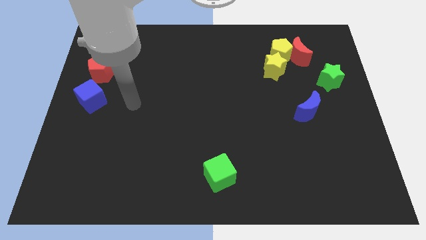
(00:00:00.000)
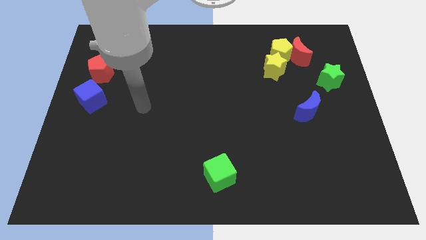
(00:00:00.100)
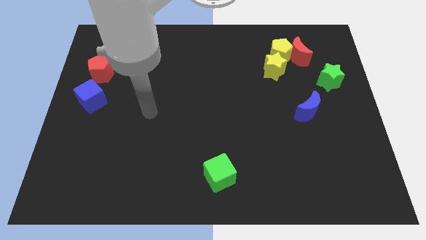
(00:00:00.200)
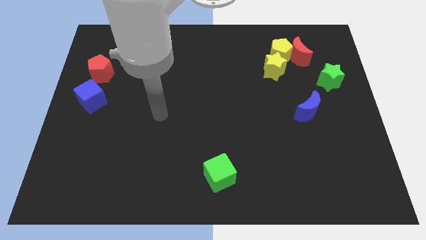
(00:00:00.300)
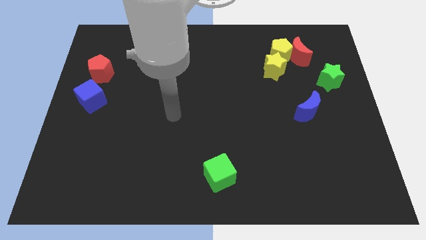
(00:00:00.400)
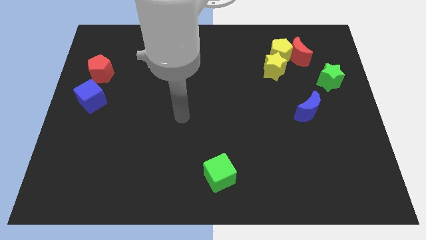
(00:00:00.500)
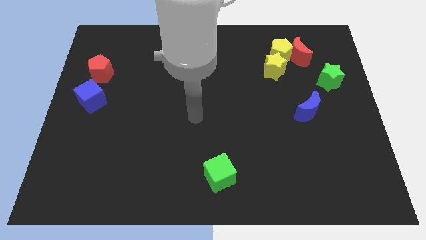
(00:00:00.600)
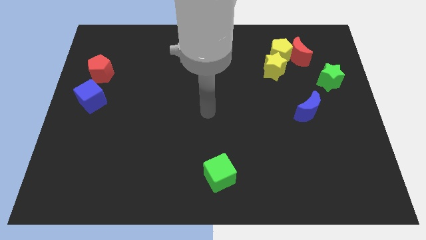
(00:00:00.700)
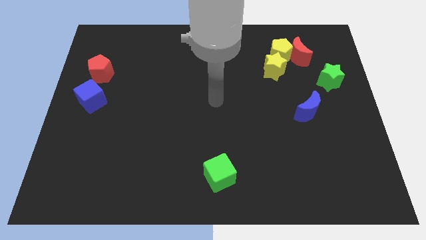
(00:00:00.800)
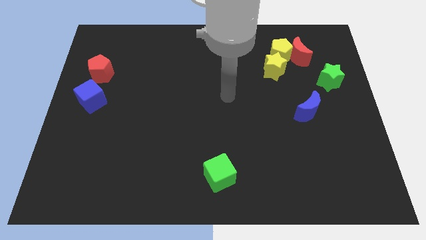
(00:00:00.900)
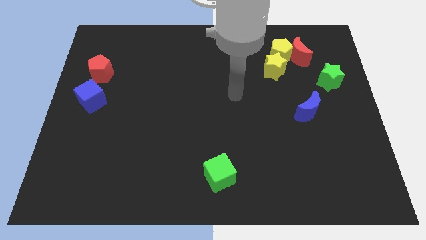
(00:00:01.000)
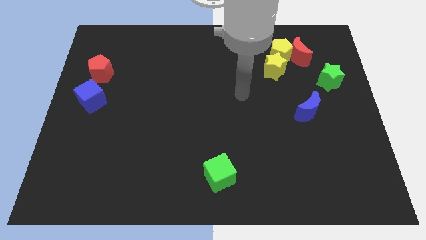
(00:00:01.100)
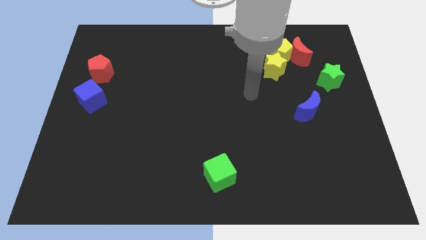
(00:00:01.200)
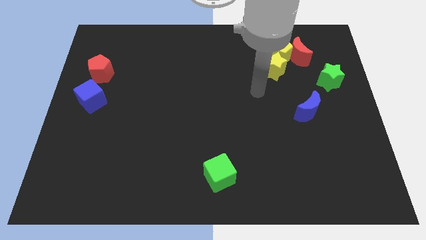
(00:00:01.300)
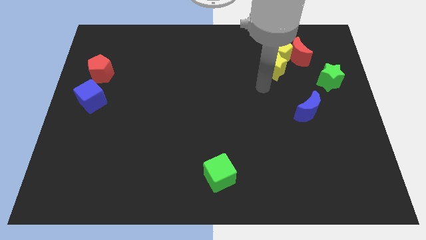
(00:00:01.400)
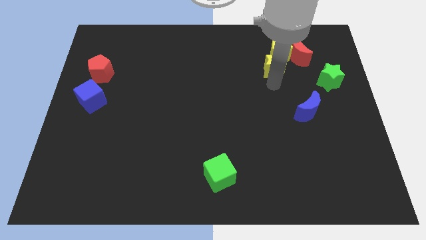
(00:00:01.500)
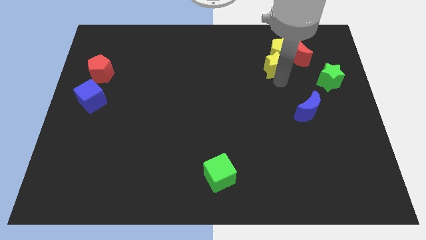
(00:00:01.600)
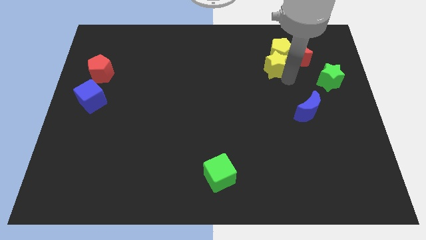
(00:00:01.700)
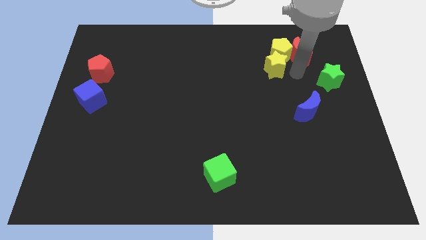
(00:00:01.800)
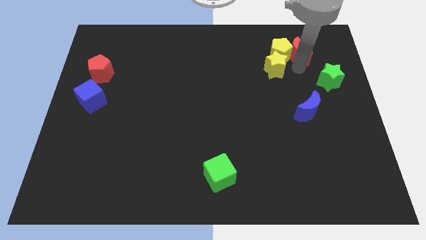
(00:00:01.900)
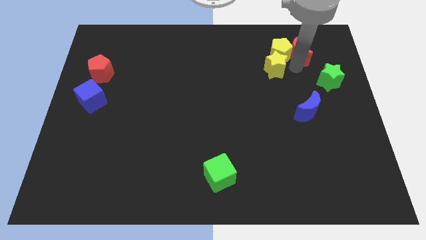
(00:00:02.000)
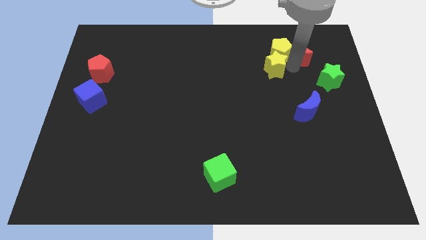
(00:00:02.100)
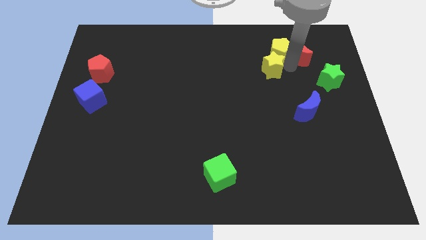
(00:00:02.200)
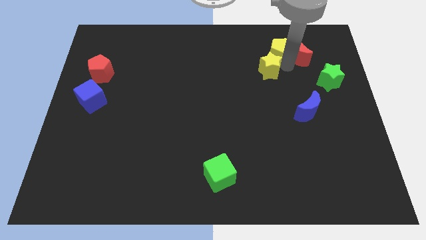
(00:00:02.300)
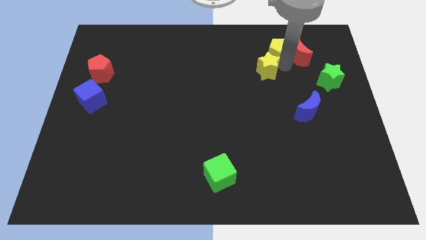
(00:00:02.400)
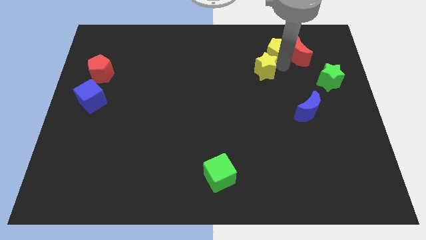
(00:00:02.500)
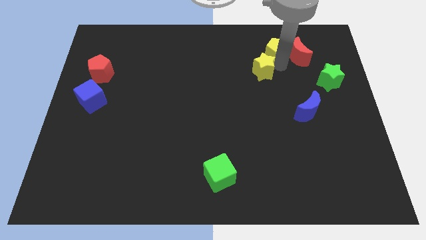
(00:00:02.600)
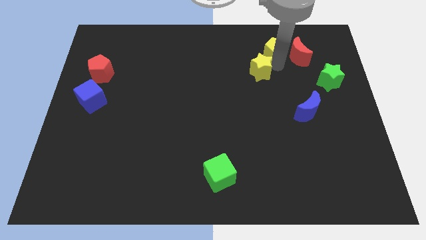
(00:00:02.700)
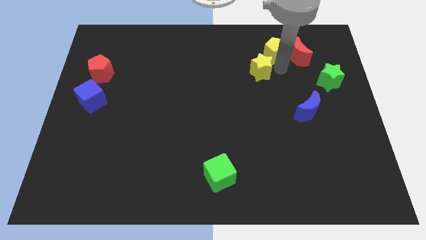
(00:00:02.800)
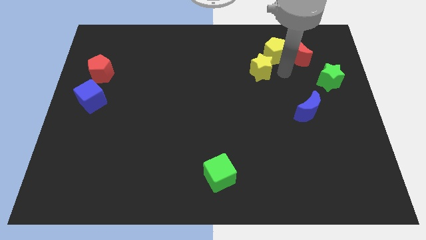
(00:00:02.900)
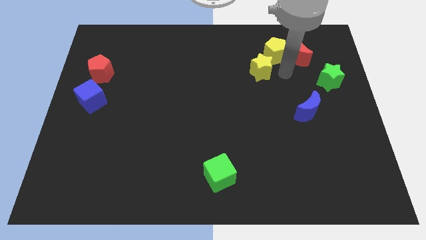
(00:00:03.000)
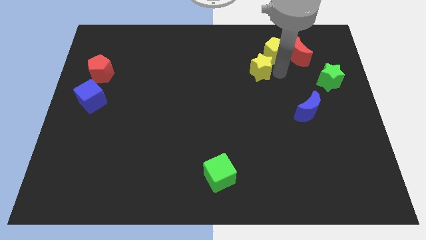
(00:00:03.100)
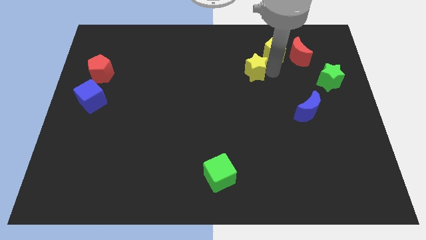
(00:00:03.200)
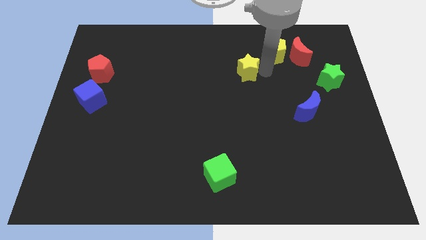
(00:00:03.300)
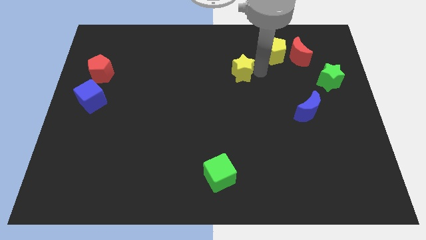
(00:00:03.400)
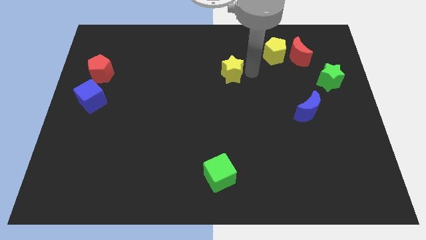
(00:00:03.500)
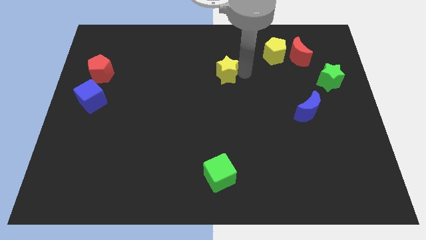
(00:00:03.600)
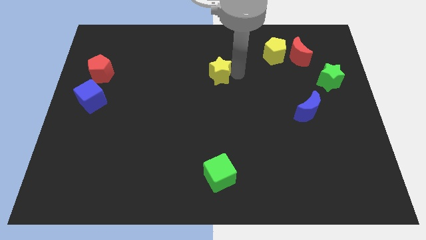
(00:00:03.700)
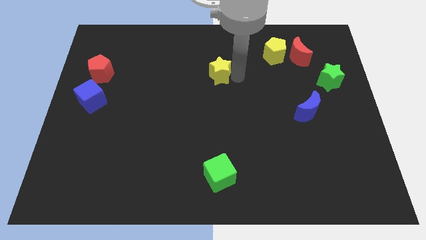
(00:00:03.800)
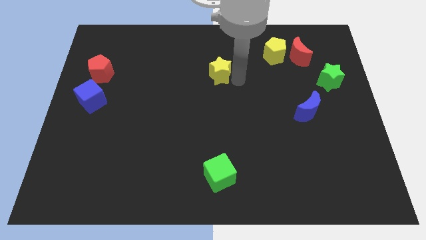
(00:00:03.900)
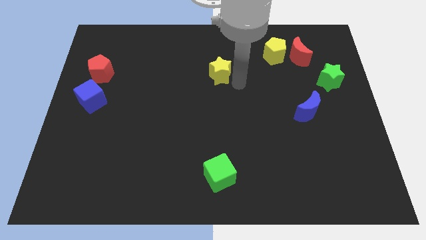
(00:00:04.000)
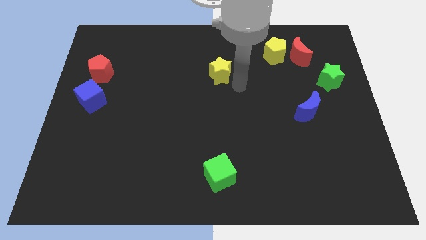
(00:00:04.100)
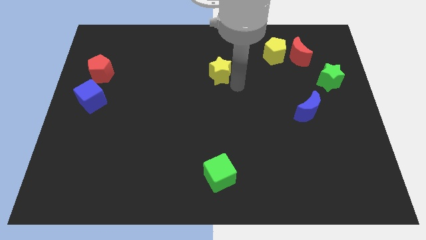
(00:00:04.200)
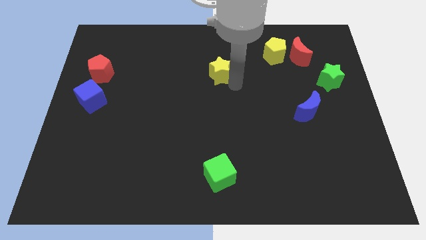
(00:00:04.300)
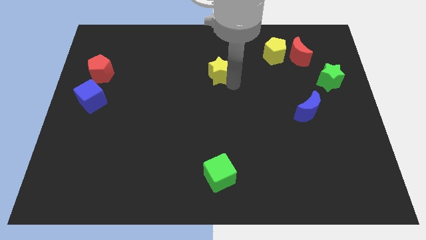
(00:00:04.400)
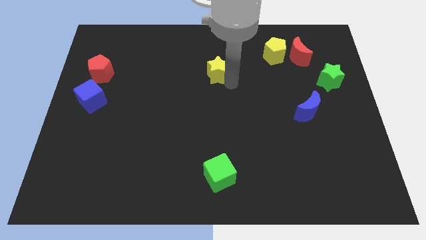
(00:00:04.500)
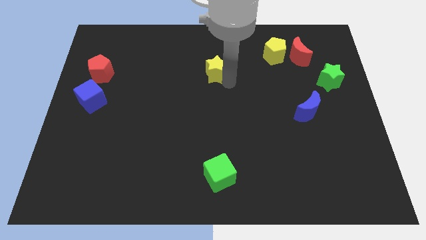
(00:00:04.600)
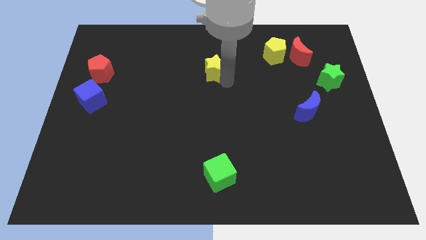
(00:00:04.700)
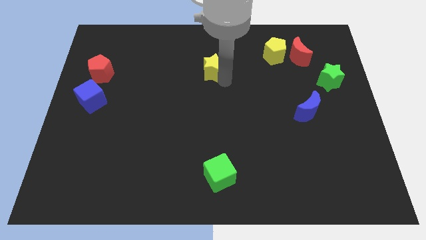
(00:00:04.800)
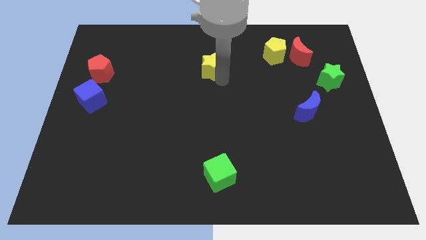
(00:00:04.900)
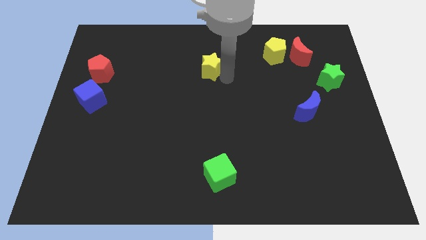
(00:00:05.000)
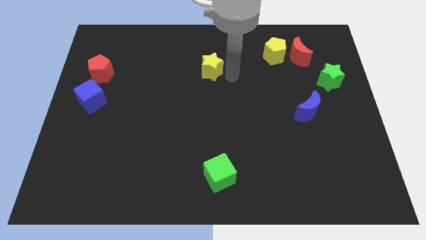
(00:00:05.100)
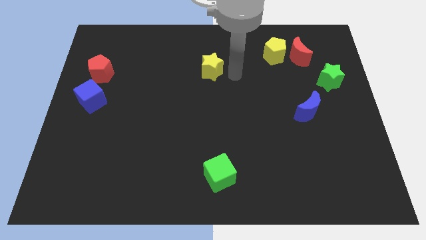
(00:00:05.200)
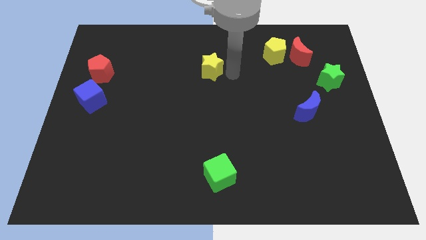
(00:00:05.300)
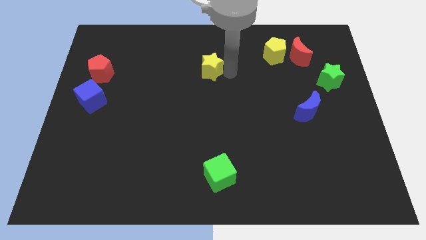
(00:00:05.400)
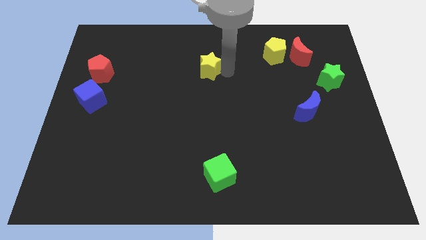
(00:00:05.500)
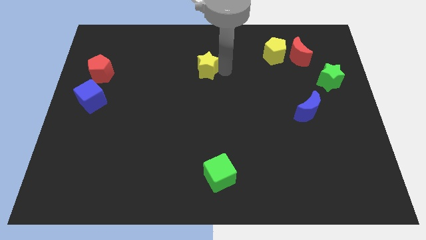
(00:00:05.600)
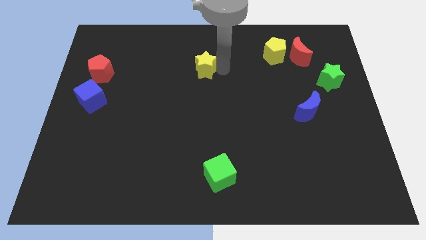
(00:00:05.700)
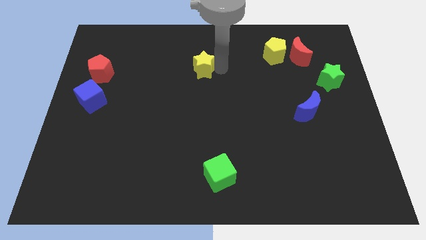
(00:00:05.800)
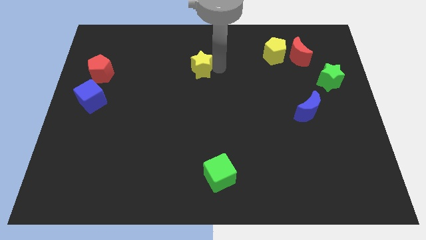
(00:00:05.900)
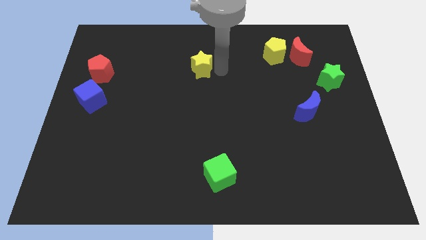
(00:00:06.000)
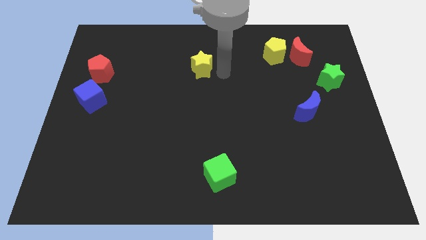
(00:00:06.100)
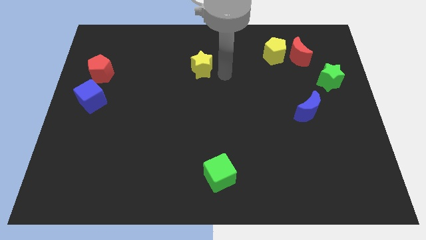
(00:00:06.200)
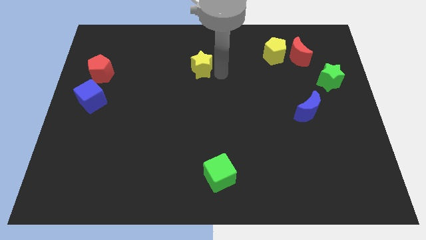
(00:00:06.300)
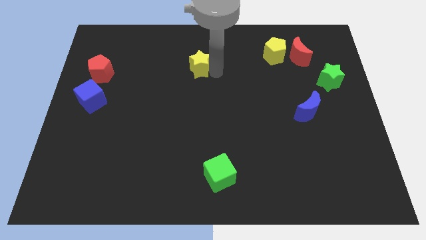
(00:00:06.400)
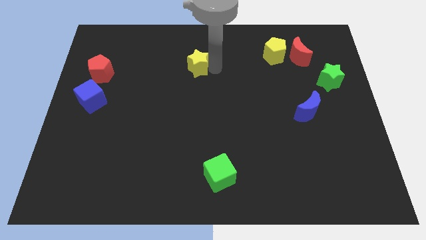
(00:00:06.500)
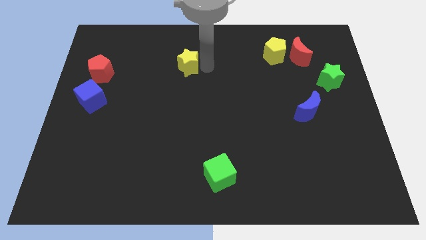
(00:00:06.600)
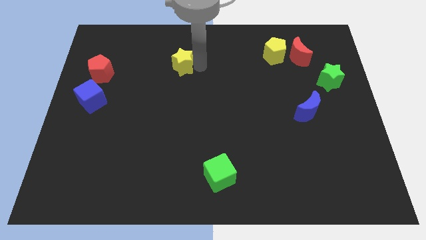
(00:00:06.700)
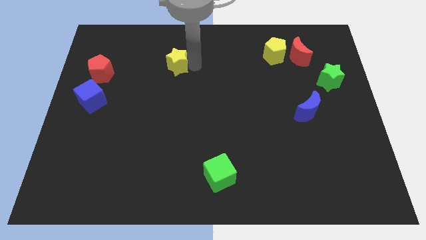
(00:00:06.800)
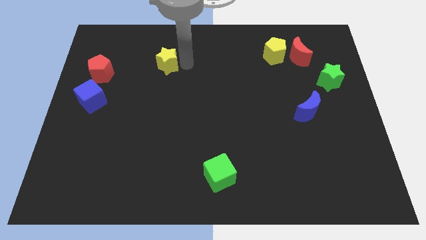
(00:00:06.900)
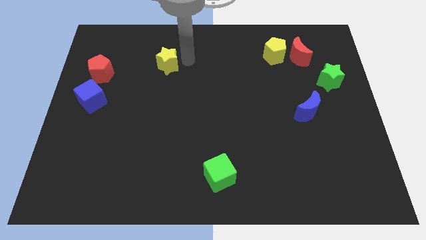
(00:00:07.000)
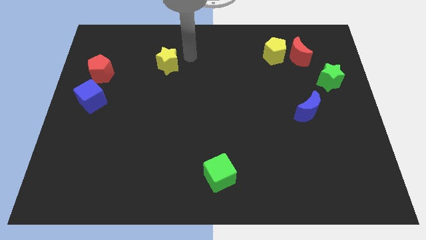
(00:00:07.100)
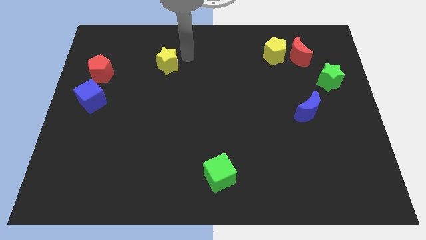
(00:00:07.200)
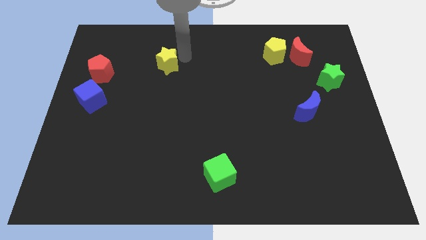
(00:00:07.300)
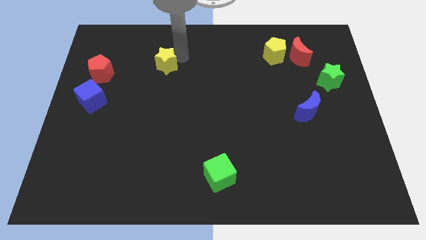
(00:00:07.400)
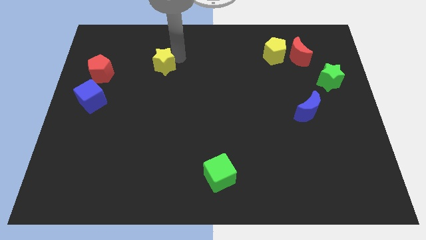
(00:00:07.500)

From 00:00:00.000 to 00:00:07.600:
move the yellow star right of the red pentagon

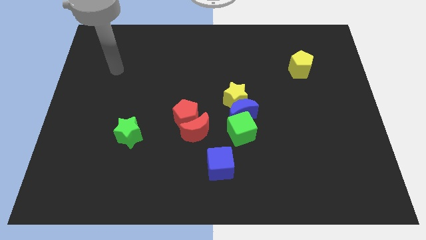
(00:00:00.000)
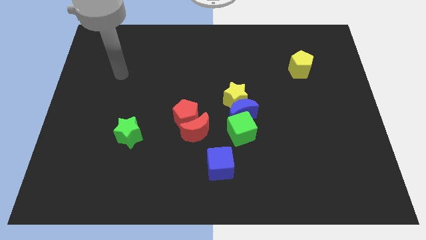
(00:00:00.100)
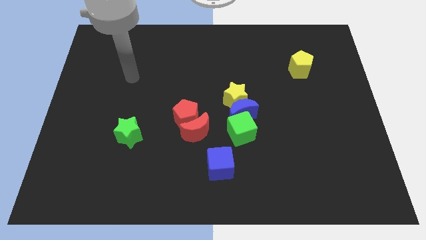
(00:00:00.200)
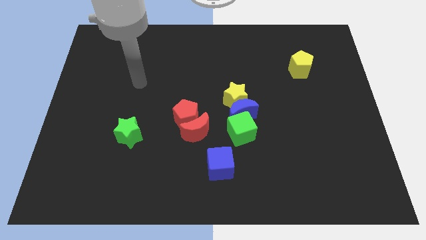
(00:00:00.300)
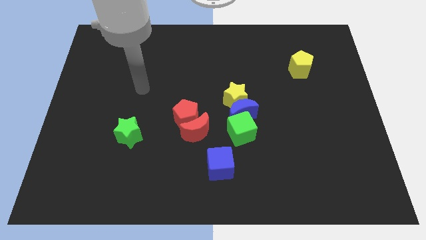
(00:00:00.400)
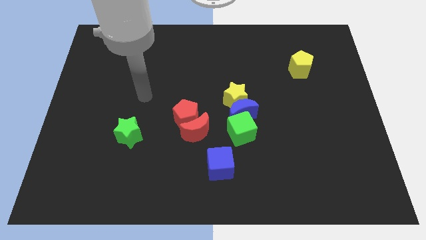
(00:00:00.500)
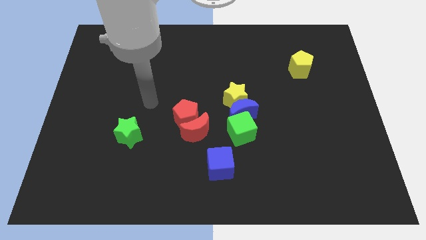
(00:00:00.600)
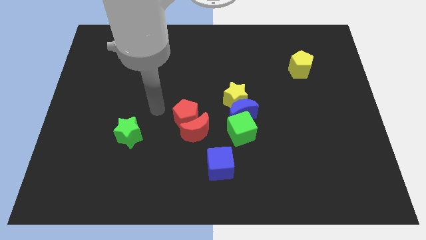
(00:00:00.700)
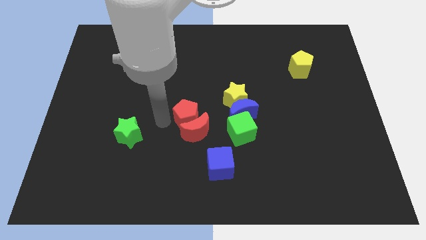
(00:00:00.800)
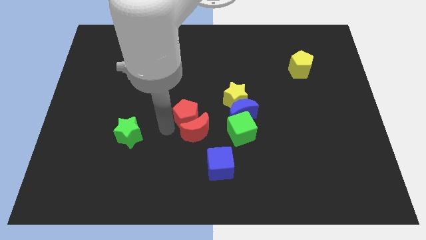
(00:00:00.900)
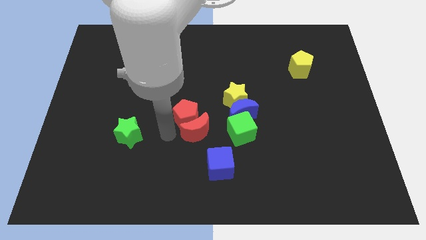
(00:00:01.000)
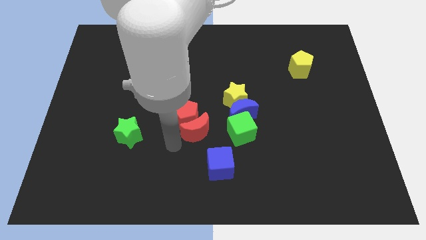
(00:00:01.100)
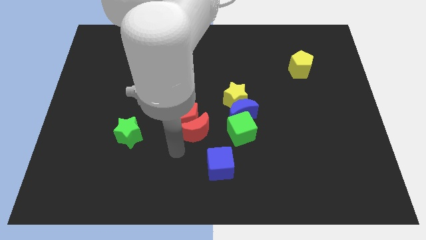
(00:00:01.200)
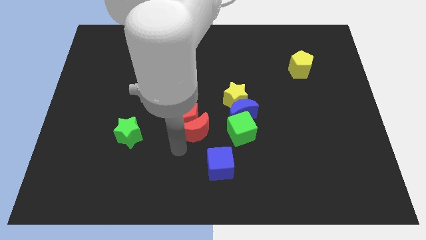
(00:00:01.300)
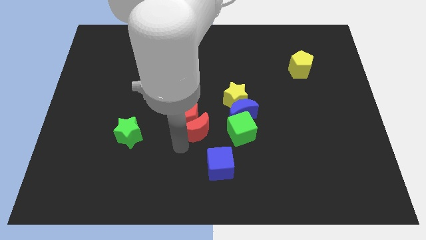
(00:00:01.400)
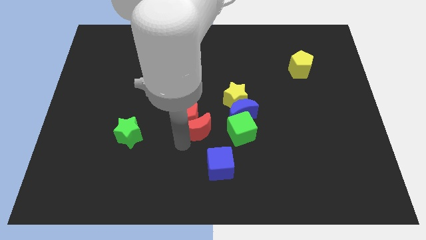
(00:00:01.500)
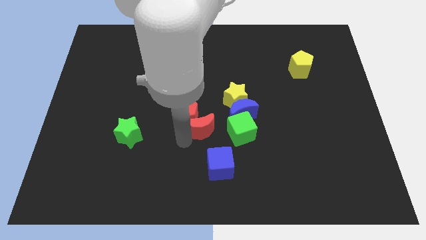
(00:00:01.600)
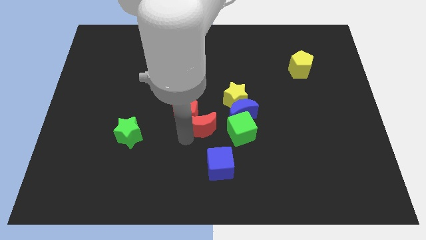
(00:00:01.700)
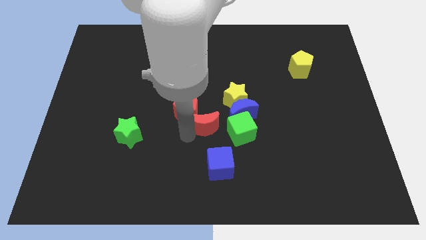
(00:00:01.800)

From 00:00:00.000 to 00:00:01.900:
put the red moon to the top left side of the green cube
